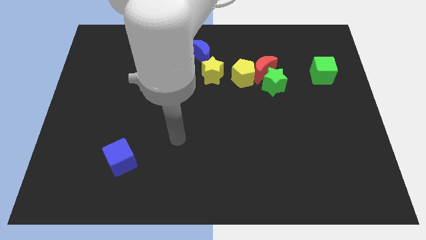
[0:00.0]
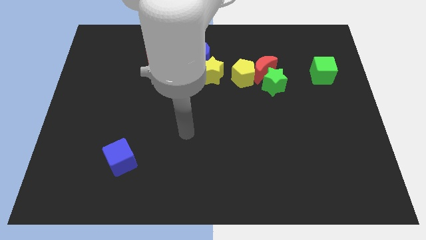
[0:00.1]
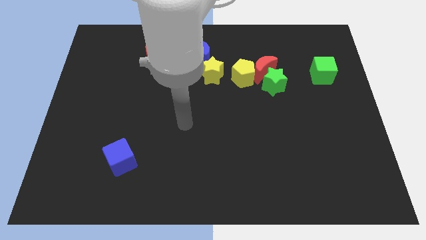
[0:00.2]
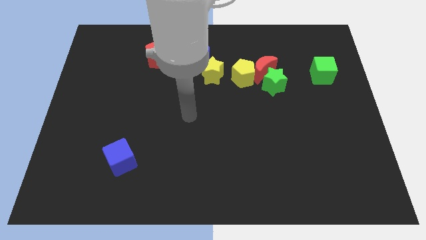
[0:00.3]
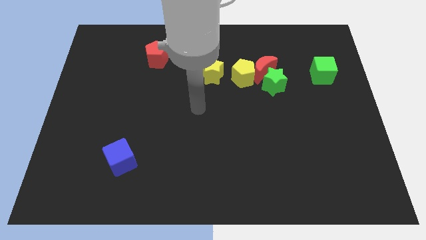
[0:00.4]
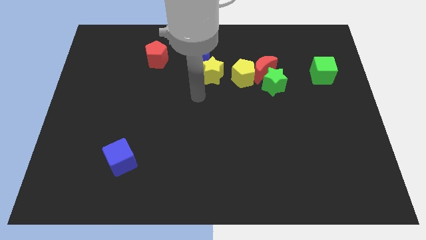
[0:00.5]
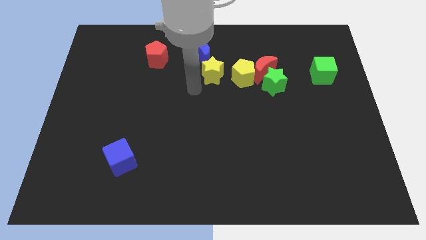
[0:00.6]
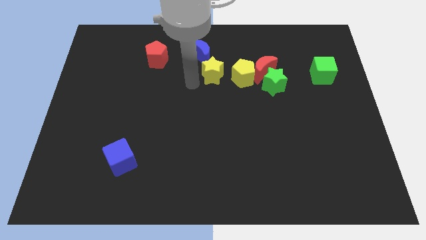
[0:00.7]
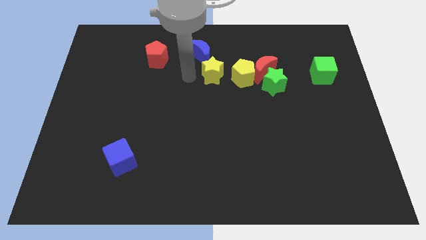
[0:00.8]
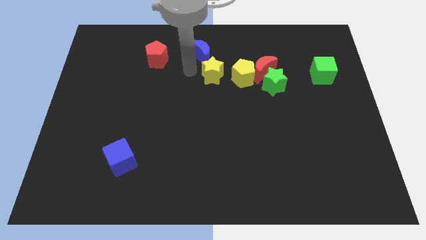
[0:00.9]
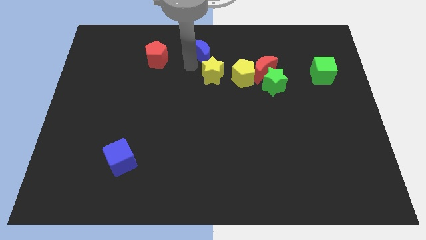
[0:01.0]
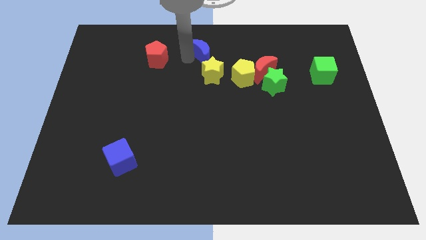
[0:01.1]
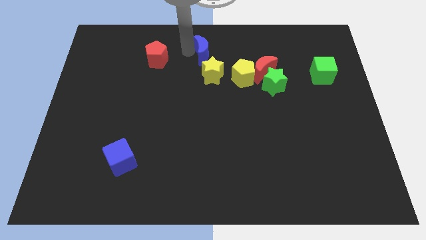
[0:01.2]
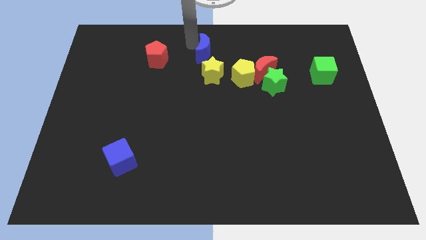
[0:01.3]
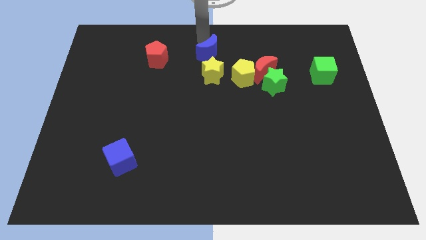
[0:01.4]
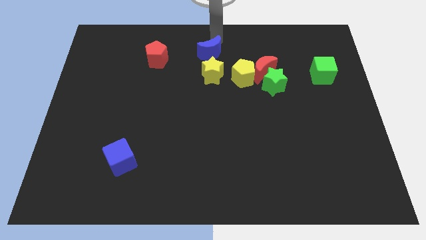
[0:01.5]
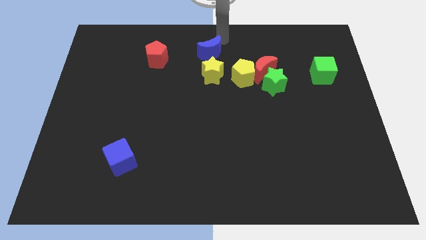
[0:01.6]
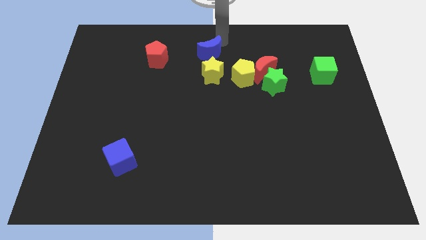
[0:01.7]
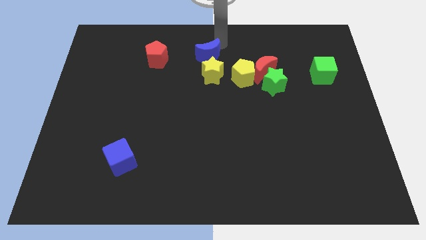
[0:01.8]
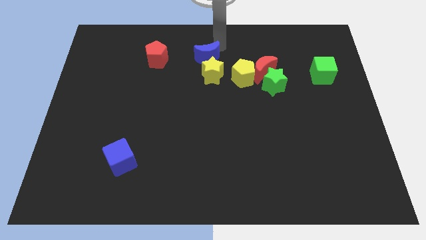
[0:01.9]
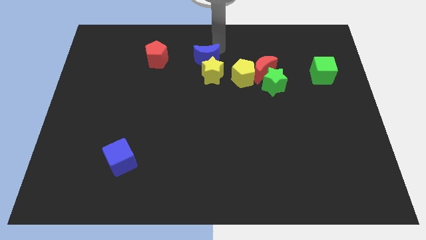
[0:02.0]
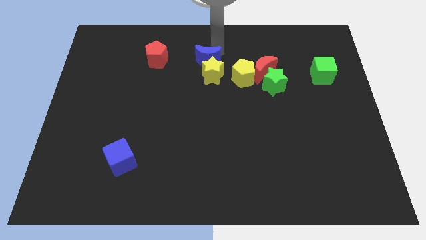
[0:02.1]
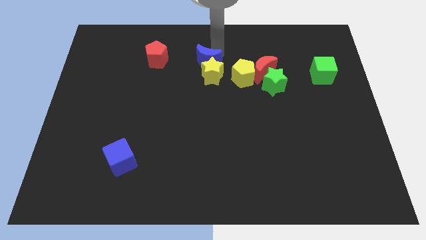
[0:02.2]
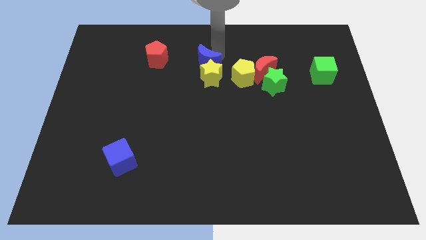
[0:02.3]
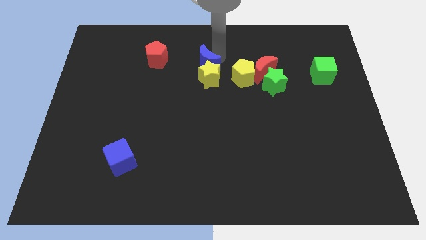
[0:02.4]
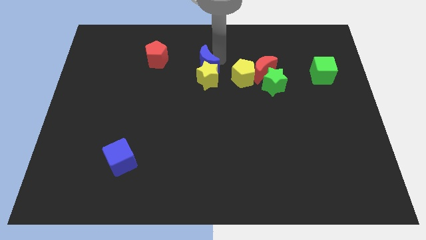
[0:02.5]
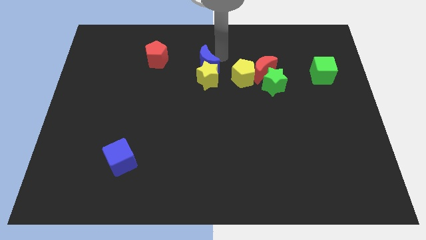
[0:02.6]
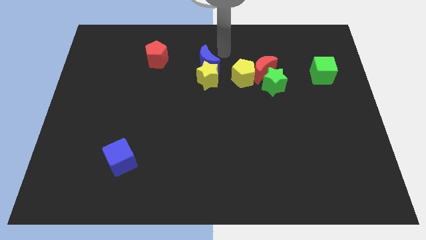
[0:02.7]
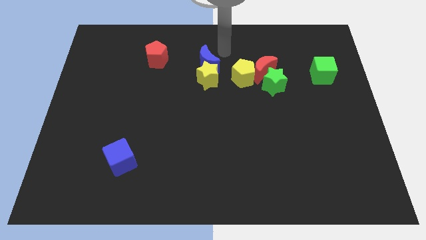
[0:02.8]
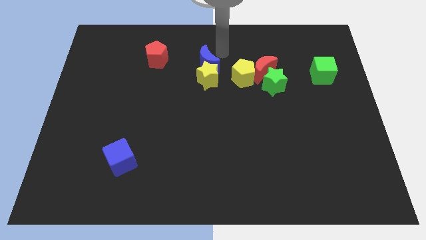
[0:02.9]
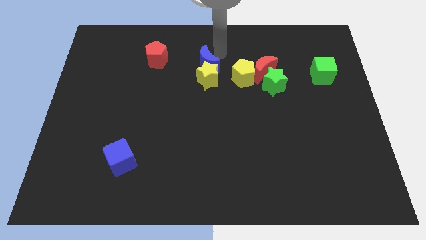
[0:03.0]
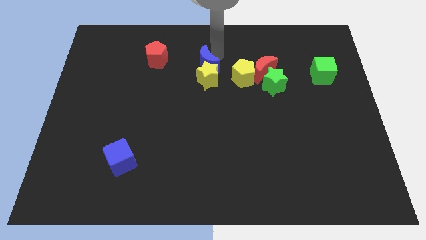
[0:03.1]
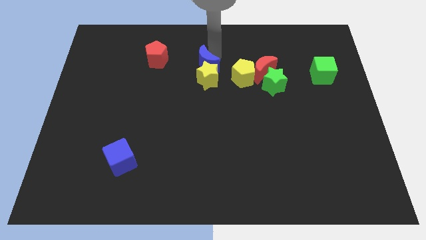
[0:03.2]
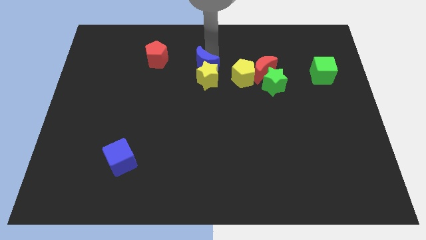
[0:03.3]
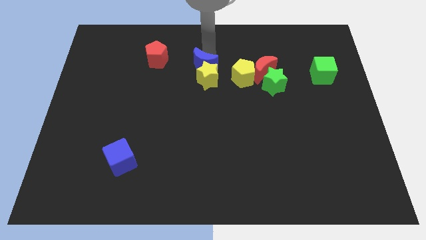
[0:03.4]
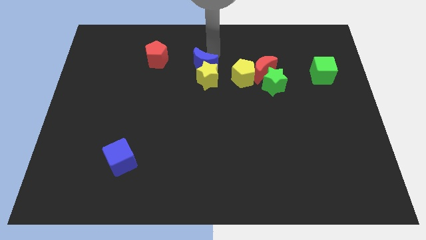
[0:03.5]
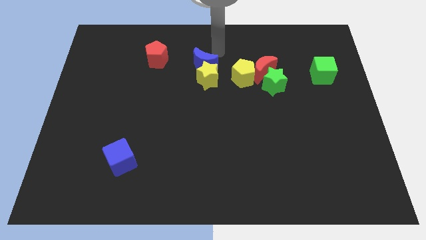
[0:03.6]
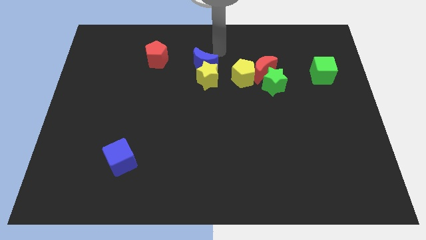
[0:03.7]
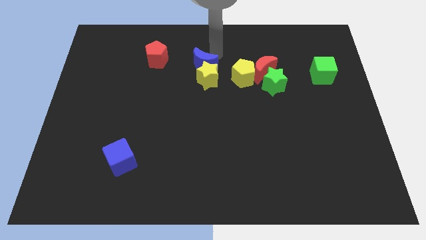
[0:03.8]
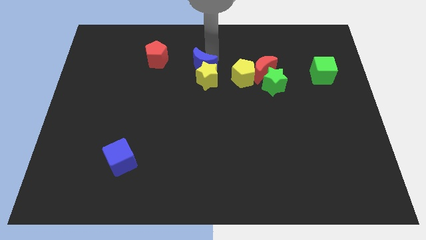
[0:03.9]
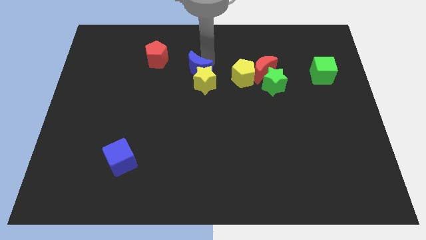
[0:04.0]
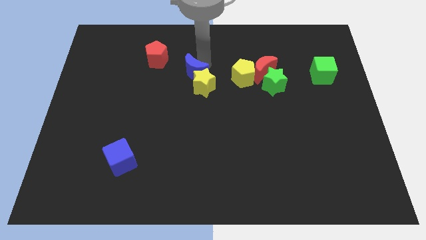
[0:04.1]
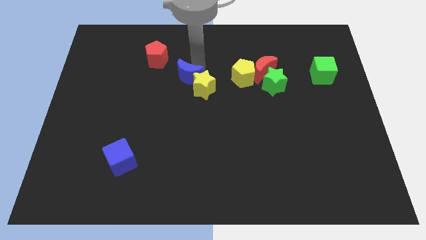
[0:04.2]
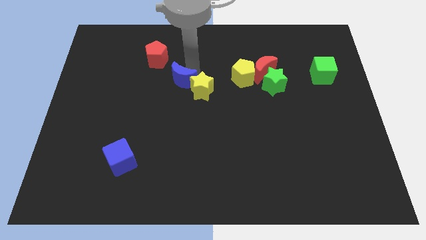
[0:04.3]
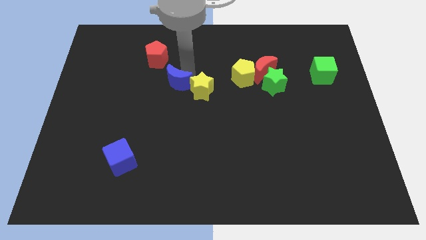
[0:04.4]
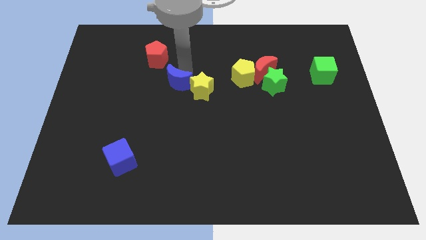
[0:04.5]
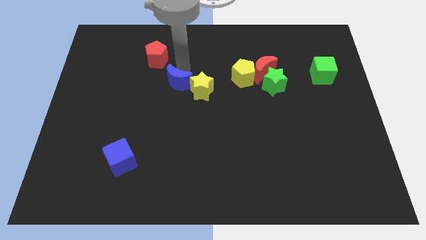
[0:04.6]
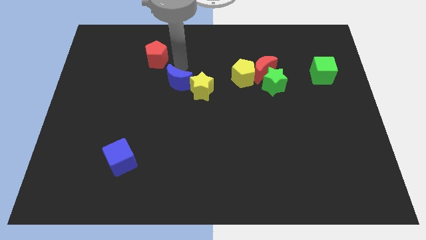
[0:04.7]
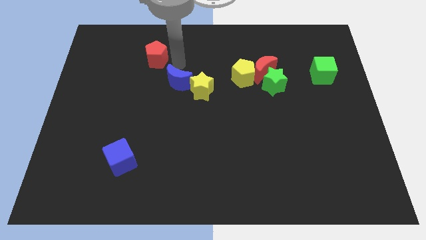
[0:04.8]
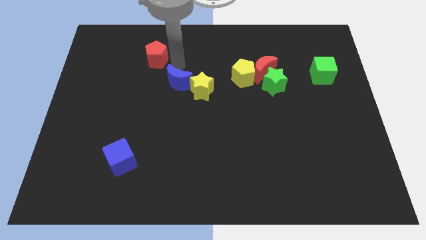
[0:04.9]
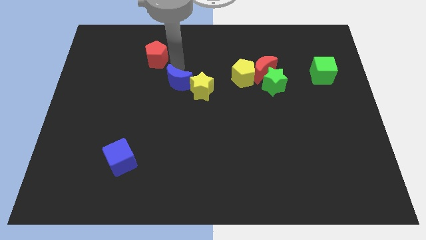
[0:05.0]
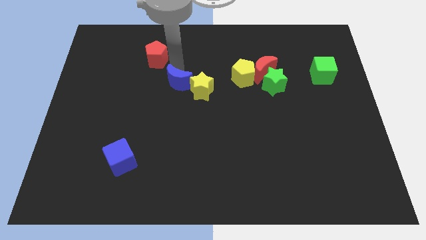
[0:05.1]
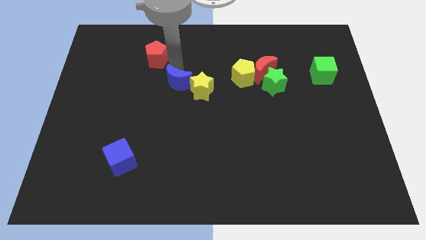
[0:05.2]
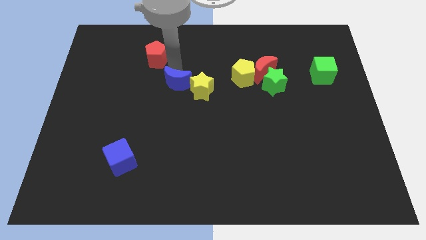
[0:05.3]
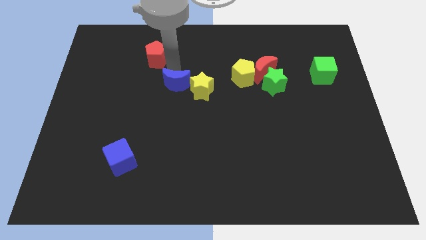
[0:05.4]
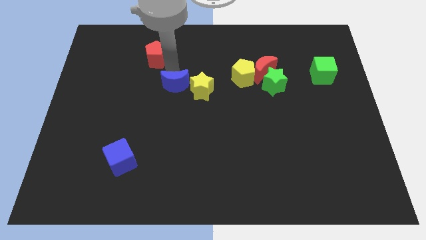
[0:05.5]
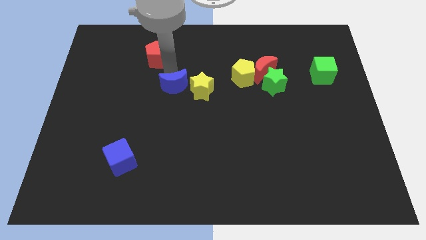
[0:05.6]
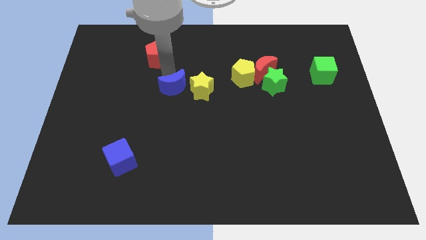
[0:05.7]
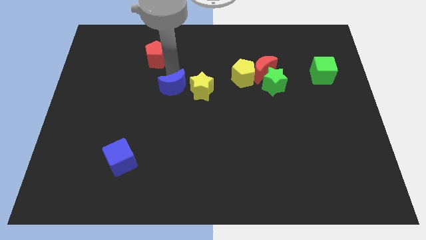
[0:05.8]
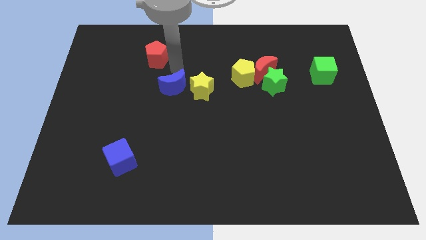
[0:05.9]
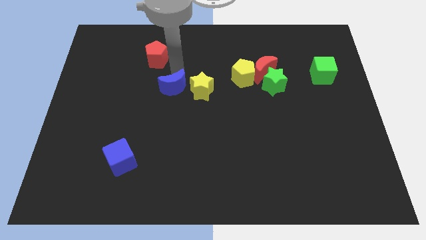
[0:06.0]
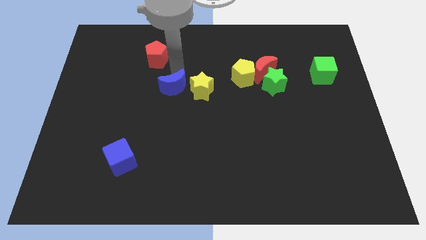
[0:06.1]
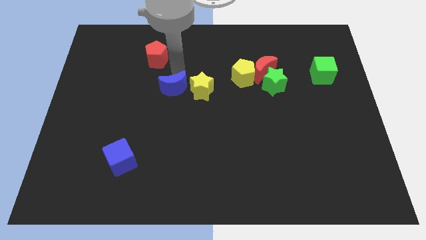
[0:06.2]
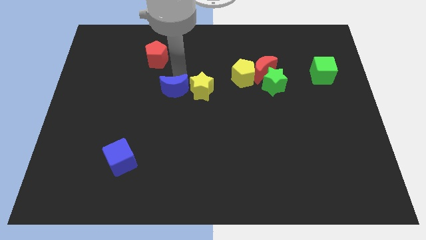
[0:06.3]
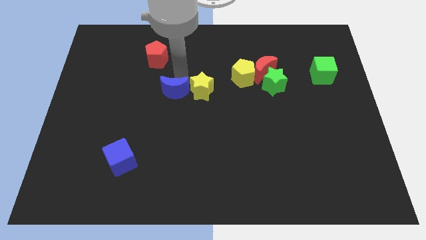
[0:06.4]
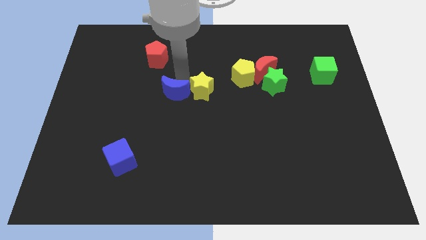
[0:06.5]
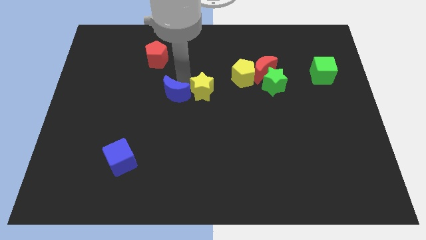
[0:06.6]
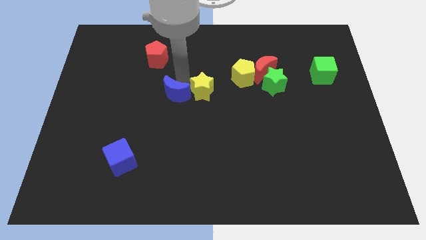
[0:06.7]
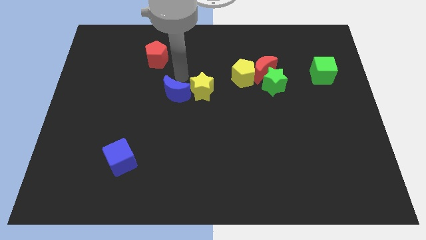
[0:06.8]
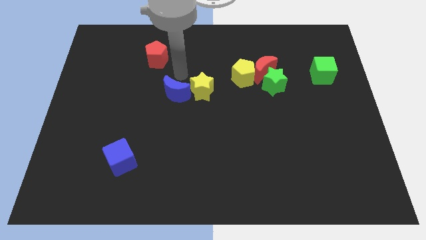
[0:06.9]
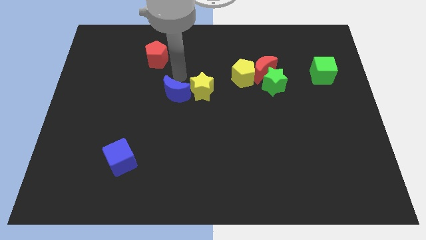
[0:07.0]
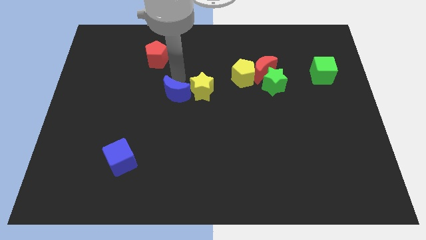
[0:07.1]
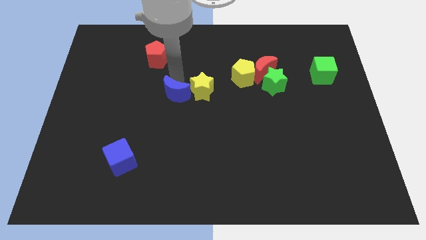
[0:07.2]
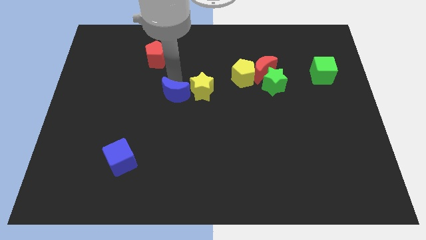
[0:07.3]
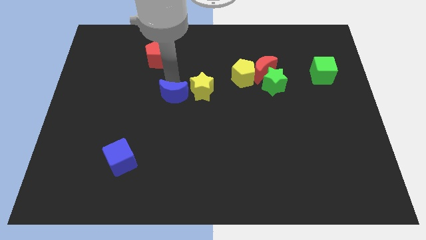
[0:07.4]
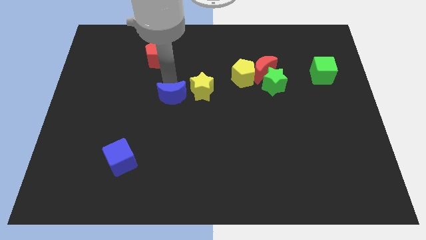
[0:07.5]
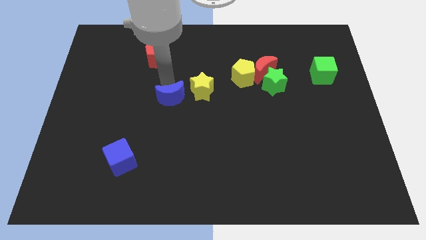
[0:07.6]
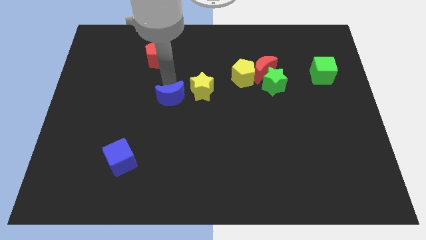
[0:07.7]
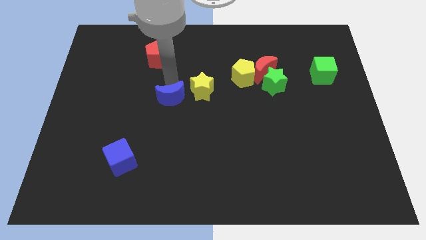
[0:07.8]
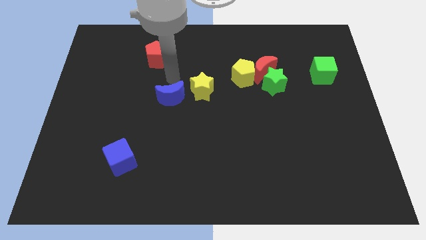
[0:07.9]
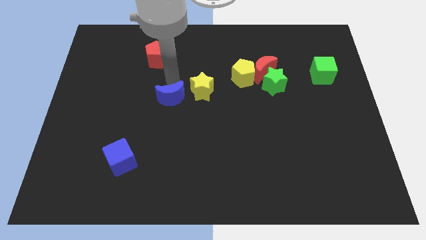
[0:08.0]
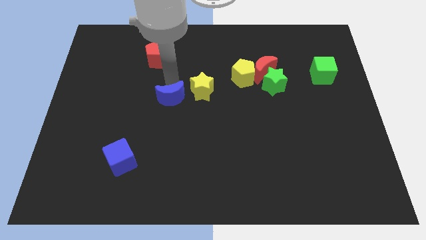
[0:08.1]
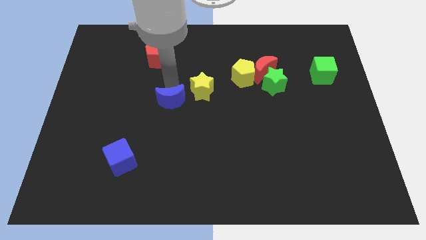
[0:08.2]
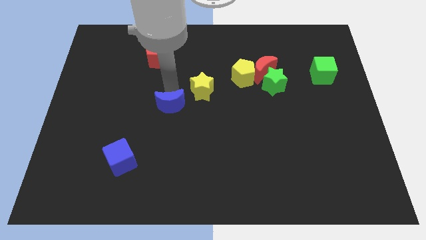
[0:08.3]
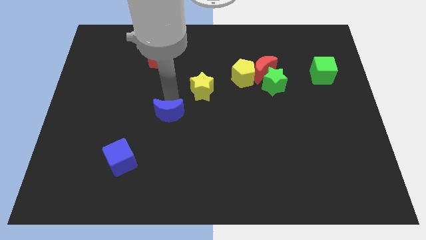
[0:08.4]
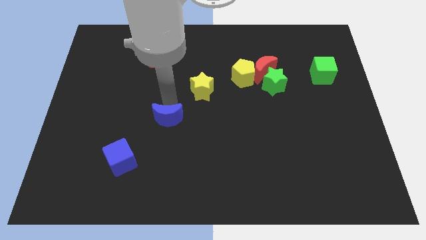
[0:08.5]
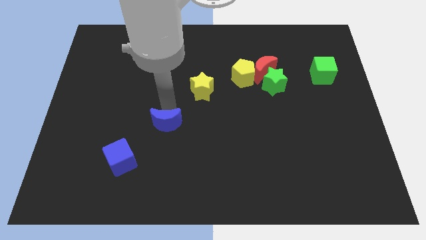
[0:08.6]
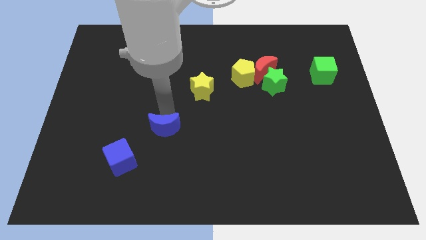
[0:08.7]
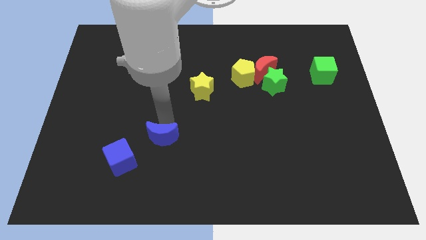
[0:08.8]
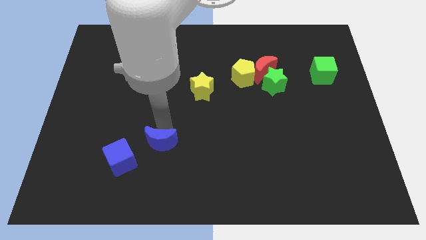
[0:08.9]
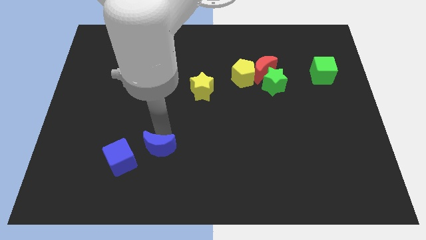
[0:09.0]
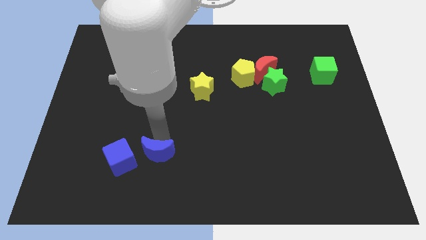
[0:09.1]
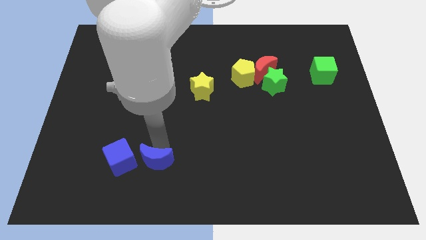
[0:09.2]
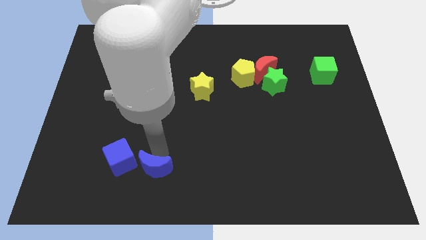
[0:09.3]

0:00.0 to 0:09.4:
put the blue moon to the bottom right of the blue cube
